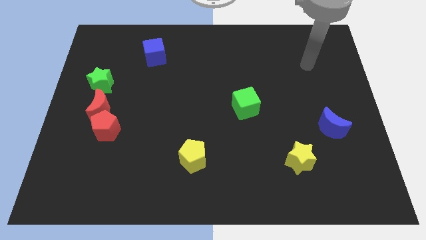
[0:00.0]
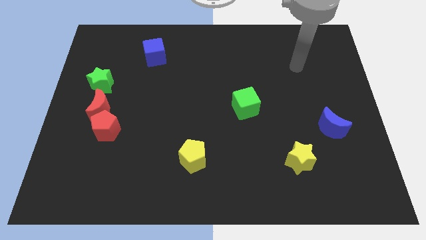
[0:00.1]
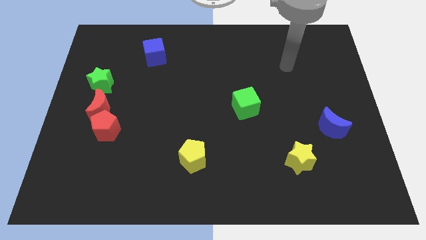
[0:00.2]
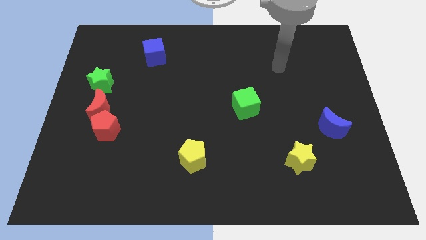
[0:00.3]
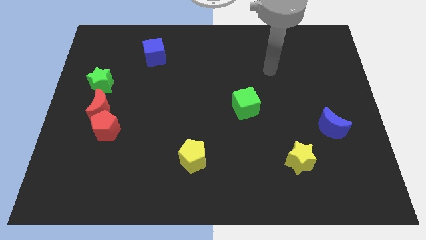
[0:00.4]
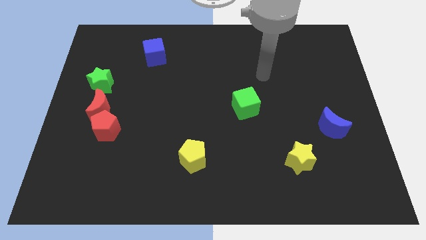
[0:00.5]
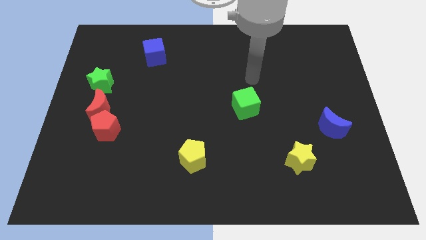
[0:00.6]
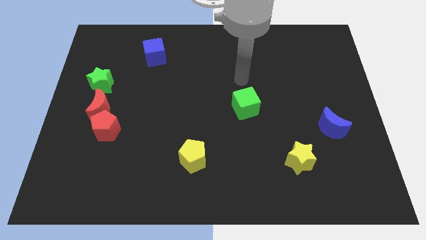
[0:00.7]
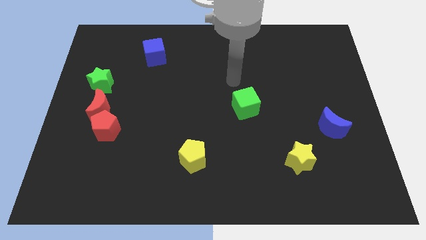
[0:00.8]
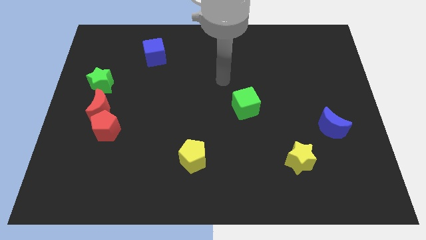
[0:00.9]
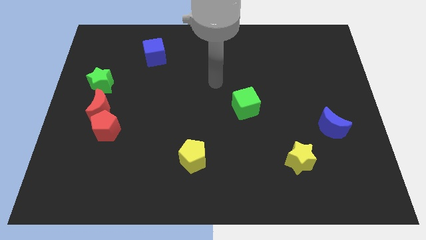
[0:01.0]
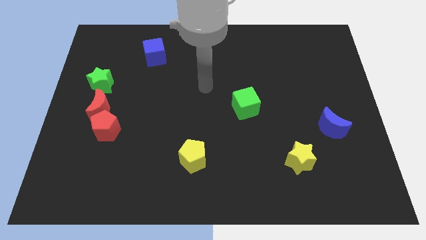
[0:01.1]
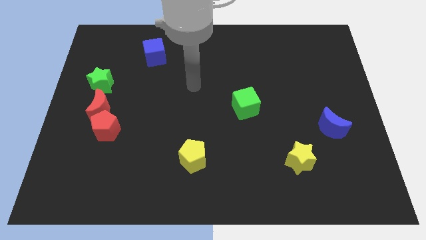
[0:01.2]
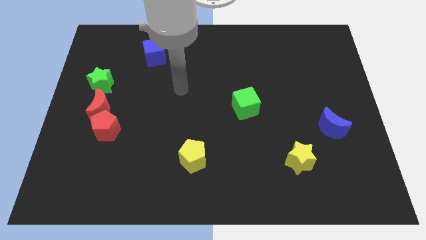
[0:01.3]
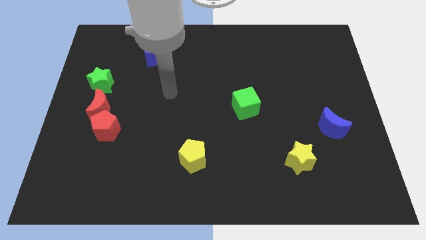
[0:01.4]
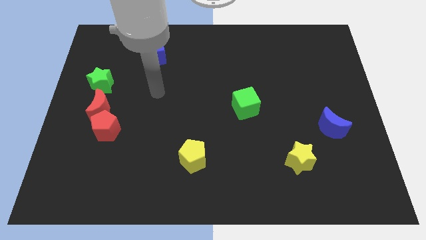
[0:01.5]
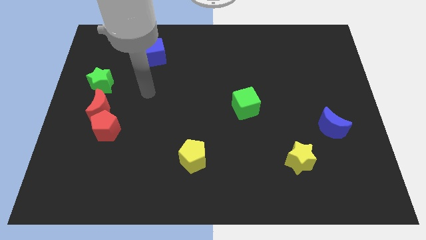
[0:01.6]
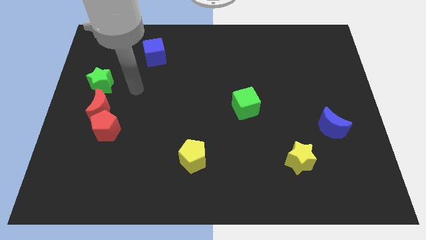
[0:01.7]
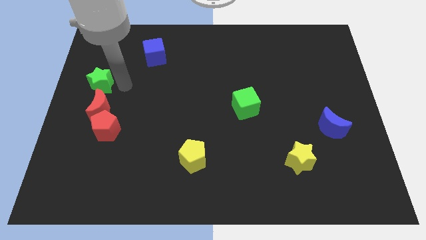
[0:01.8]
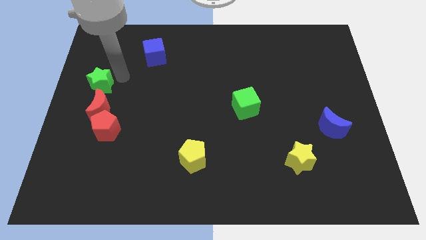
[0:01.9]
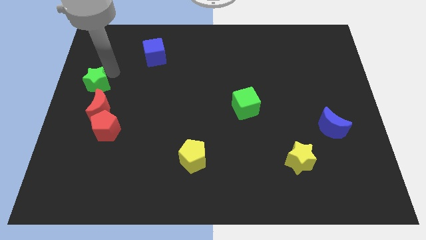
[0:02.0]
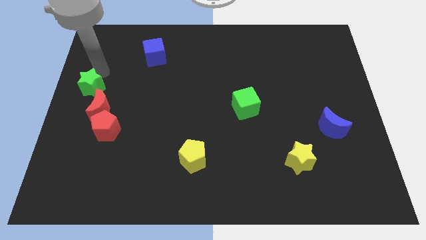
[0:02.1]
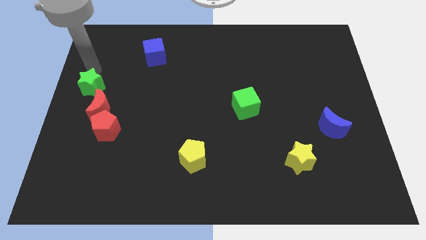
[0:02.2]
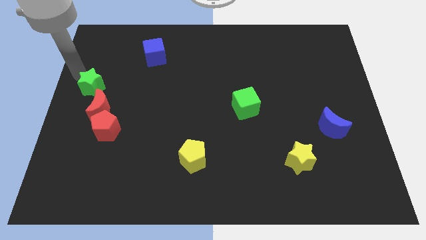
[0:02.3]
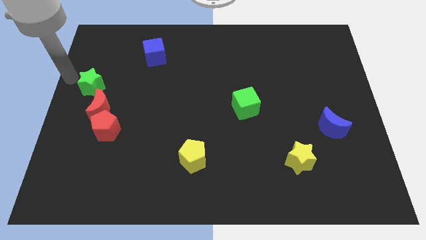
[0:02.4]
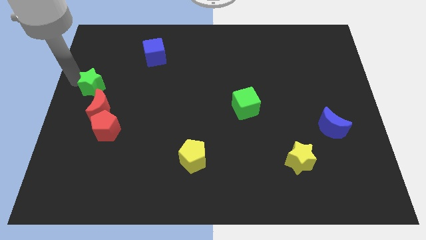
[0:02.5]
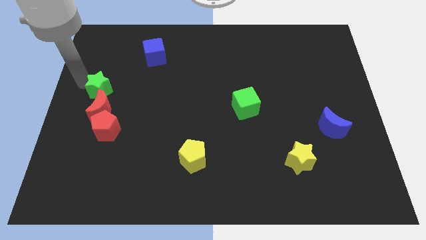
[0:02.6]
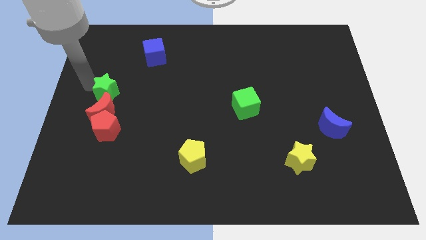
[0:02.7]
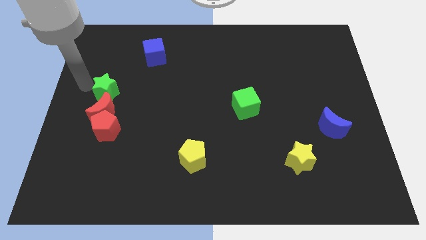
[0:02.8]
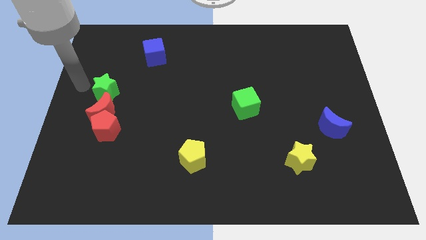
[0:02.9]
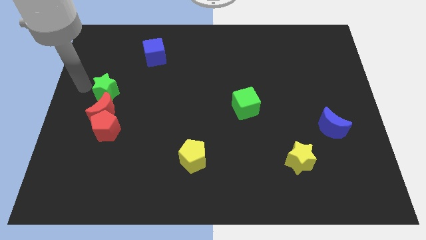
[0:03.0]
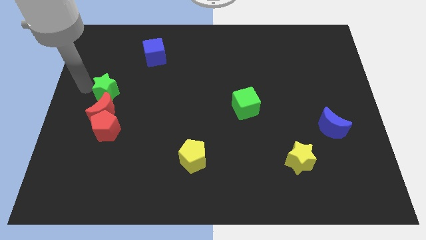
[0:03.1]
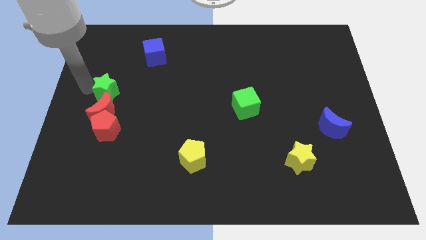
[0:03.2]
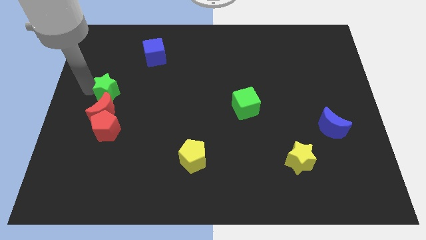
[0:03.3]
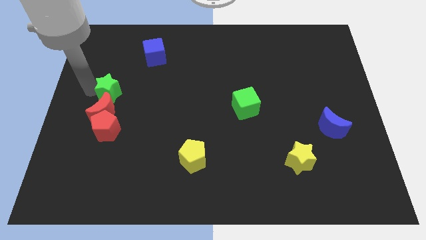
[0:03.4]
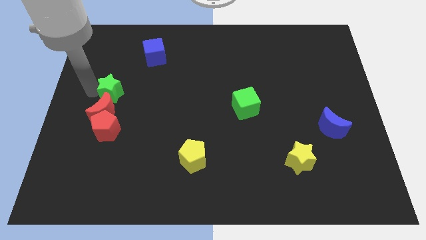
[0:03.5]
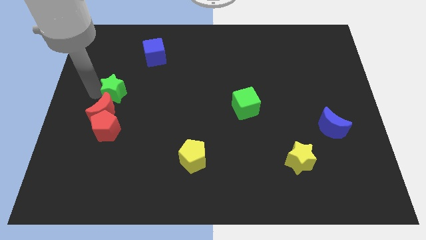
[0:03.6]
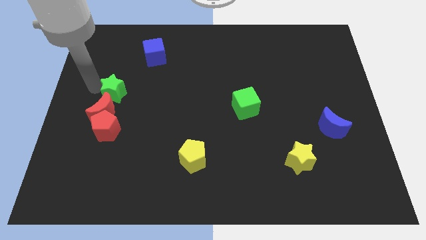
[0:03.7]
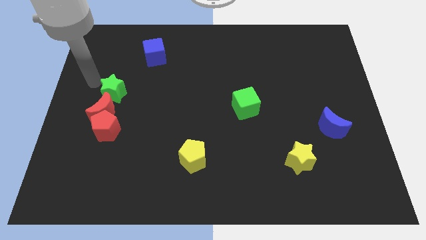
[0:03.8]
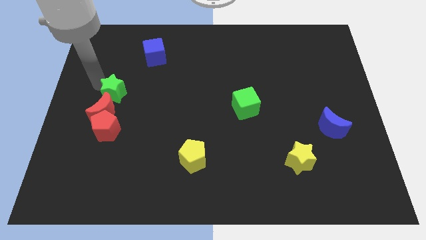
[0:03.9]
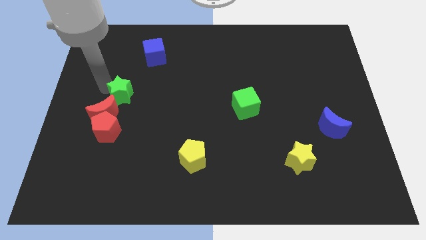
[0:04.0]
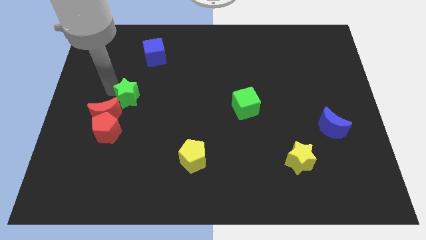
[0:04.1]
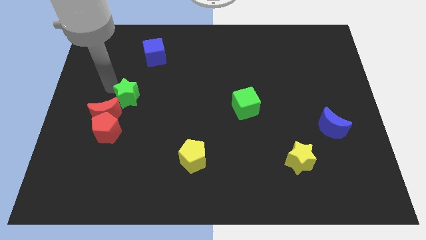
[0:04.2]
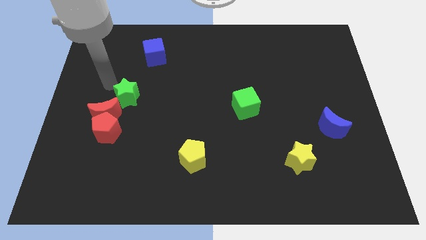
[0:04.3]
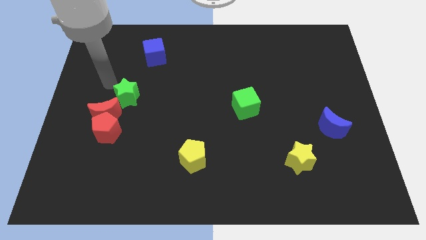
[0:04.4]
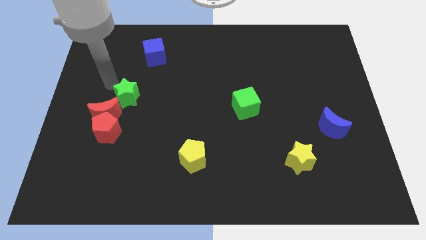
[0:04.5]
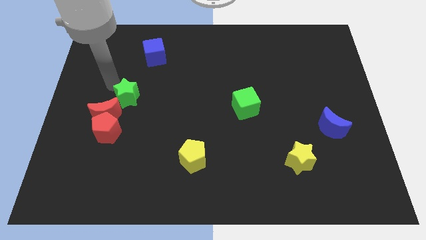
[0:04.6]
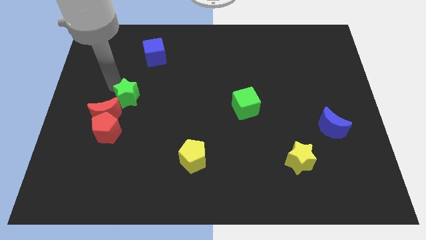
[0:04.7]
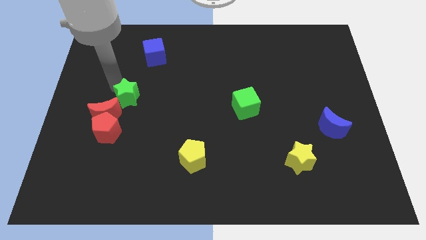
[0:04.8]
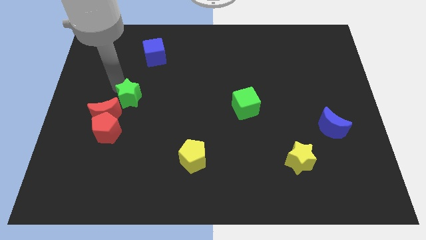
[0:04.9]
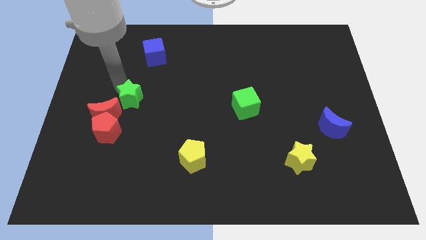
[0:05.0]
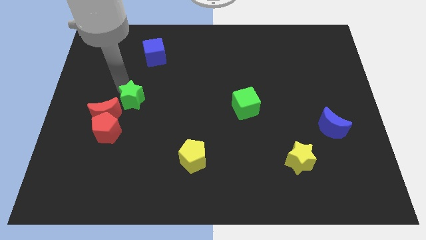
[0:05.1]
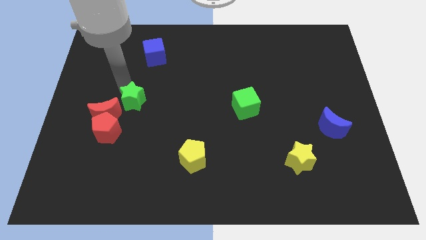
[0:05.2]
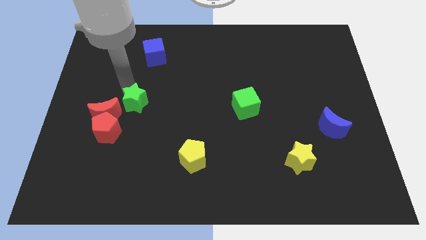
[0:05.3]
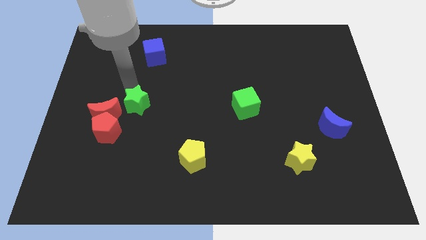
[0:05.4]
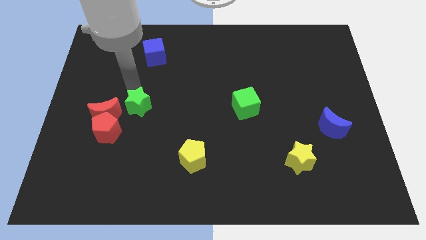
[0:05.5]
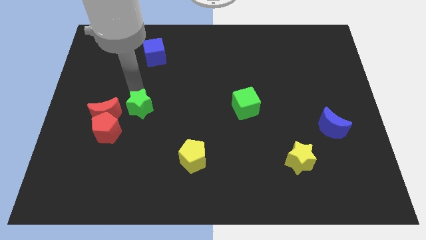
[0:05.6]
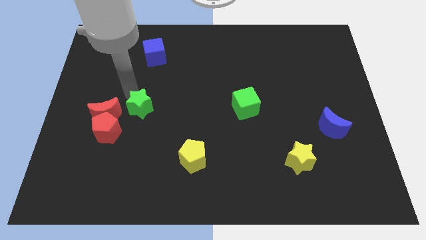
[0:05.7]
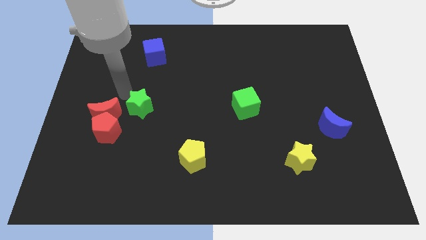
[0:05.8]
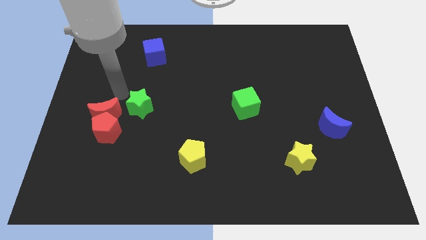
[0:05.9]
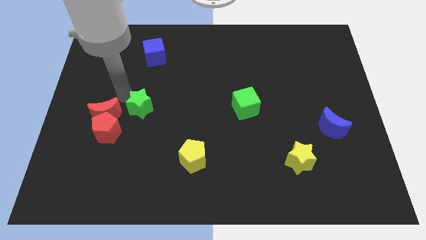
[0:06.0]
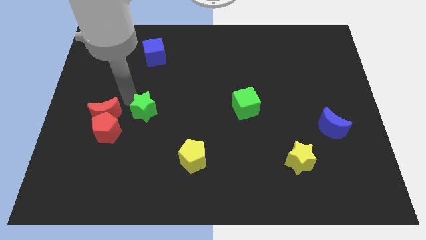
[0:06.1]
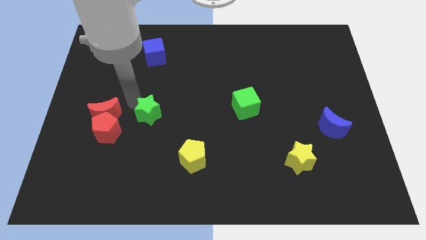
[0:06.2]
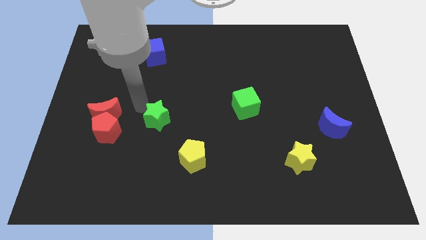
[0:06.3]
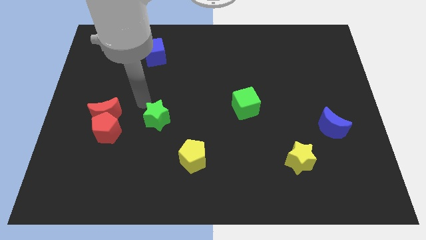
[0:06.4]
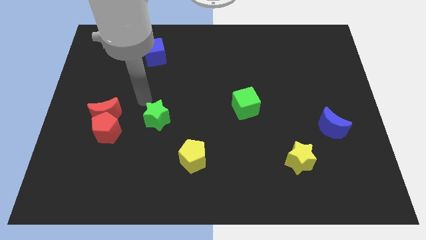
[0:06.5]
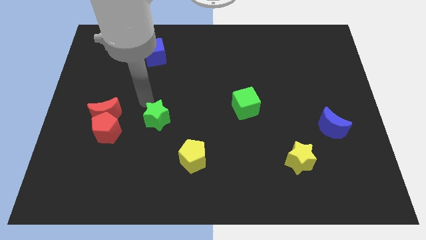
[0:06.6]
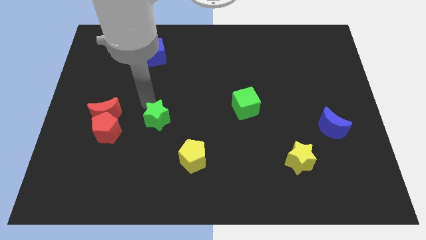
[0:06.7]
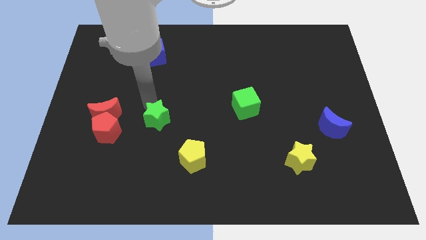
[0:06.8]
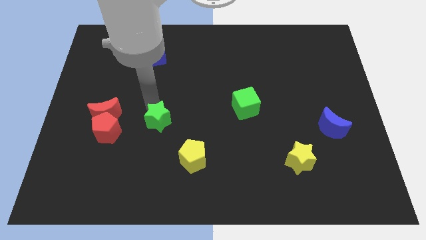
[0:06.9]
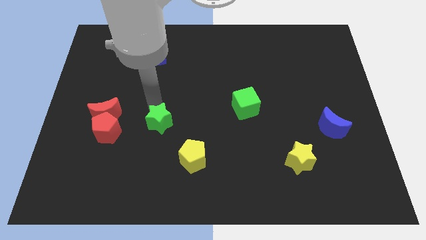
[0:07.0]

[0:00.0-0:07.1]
slide the green star diagonally up and to the left of the yellow pentagon
